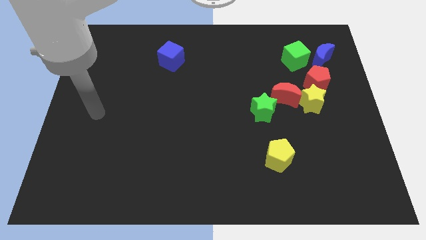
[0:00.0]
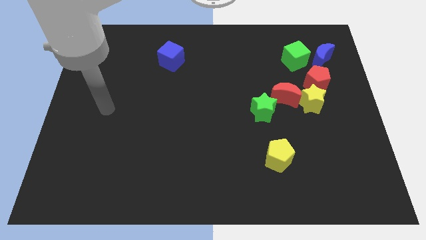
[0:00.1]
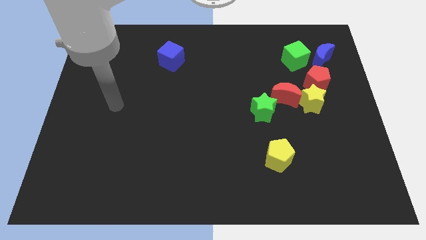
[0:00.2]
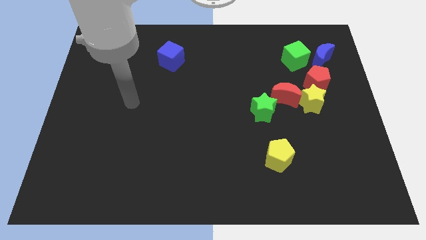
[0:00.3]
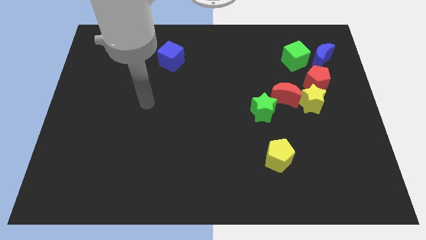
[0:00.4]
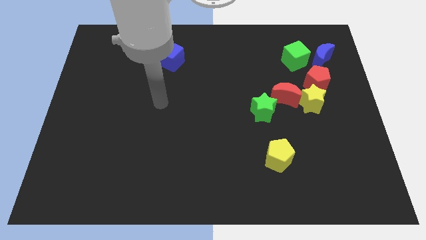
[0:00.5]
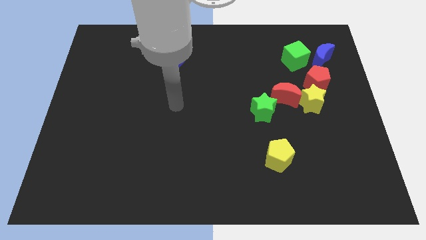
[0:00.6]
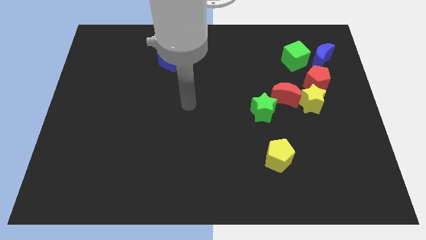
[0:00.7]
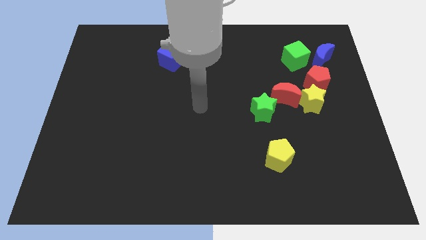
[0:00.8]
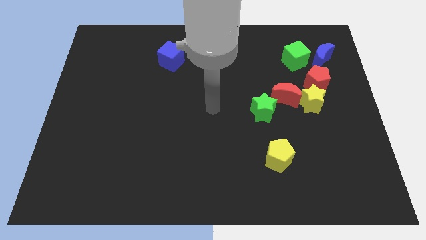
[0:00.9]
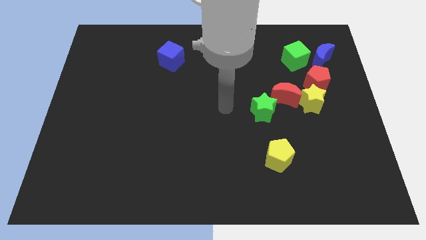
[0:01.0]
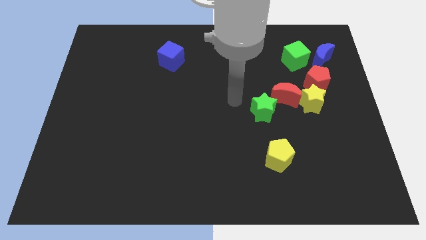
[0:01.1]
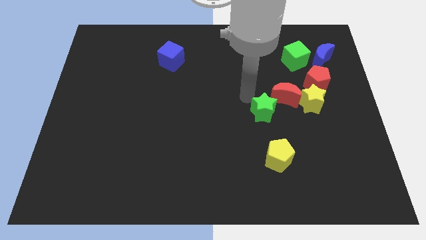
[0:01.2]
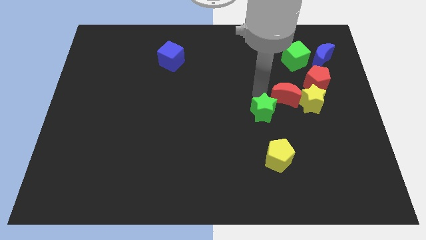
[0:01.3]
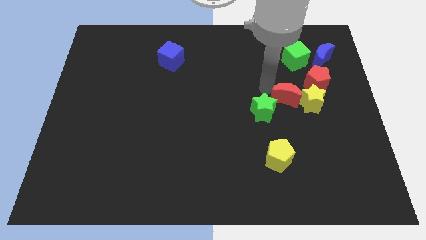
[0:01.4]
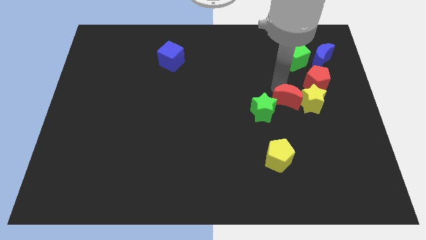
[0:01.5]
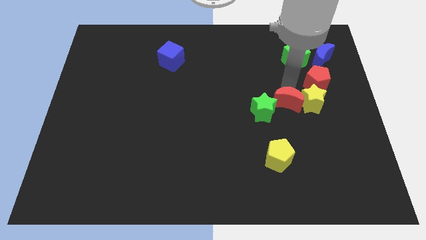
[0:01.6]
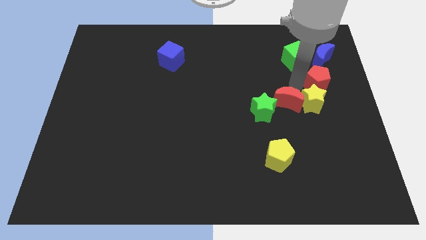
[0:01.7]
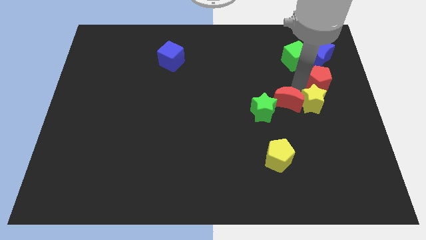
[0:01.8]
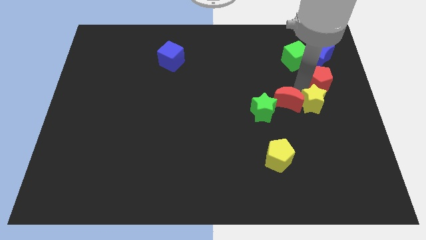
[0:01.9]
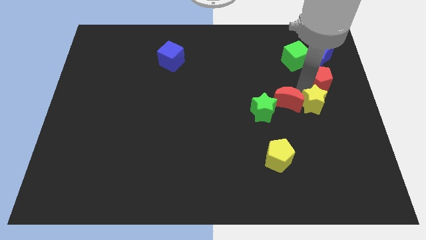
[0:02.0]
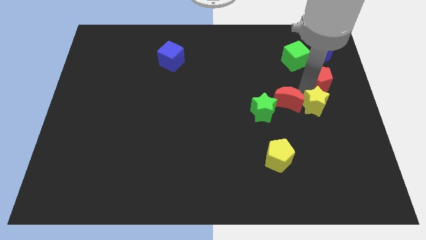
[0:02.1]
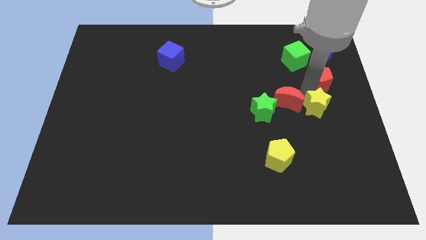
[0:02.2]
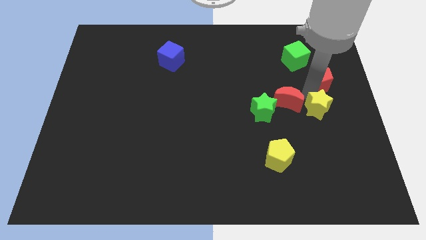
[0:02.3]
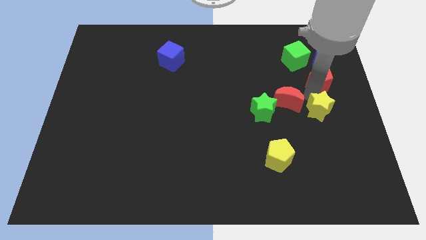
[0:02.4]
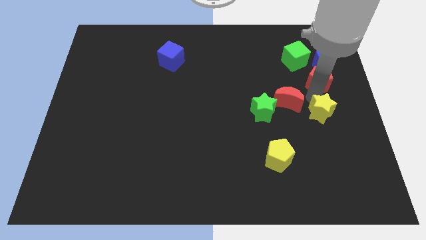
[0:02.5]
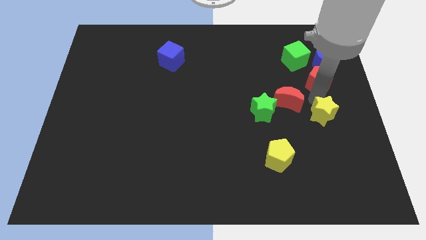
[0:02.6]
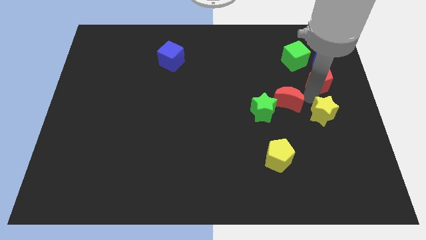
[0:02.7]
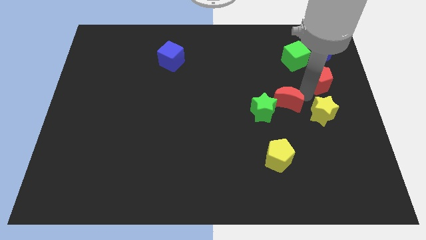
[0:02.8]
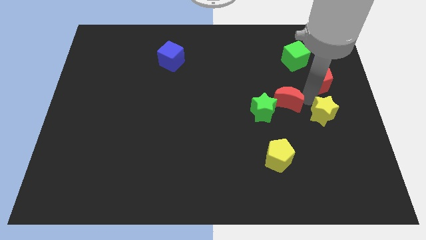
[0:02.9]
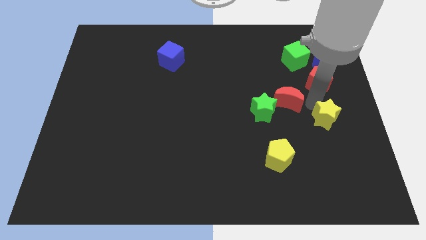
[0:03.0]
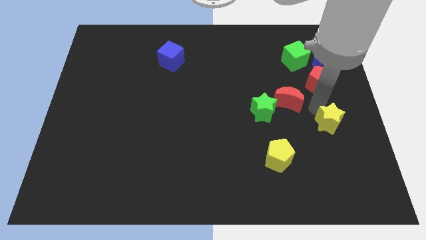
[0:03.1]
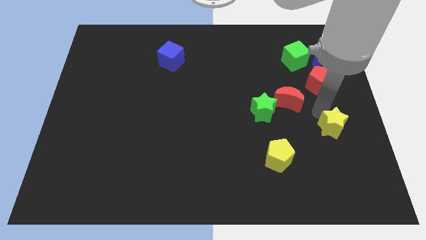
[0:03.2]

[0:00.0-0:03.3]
move the yellow star away from the red moon and red pentagon

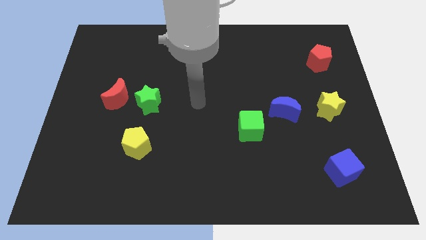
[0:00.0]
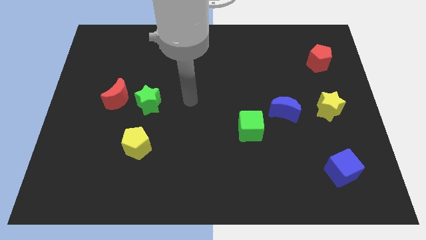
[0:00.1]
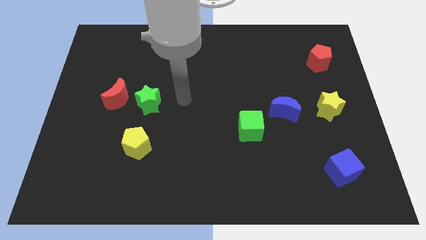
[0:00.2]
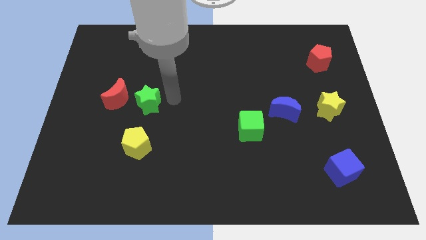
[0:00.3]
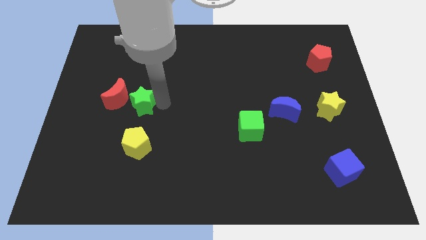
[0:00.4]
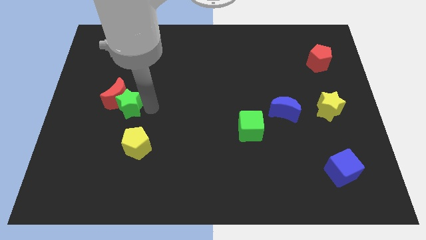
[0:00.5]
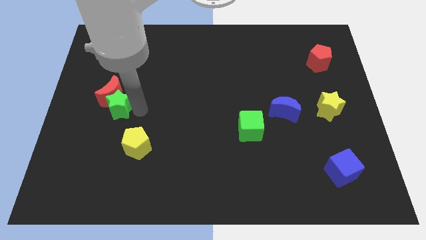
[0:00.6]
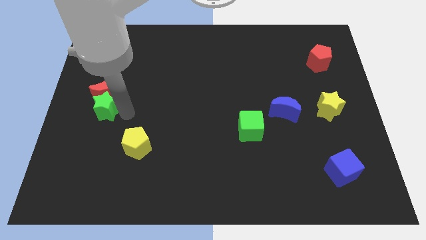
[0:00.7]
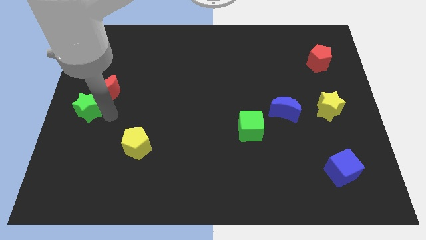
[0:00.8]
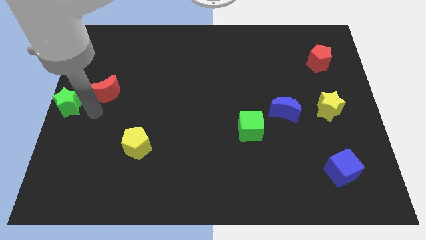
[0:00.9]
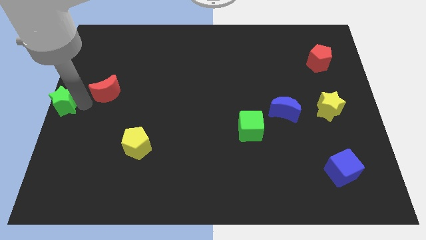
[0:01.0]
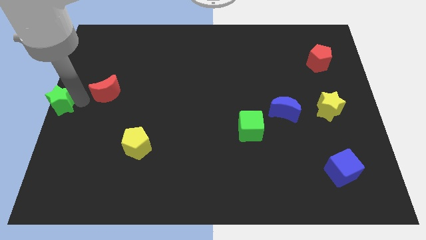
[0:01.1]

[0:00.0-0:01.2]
pull the red moon apart from the green star

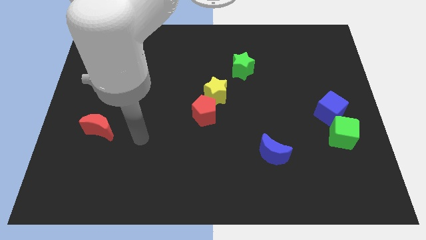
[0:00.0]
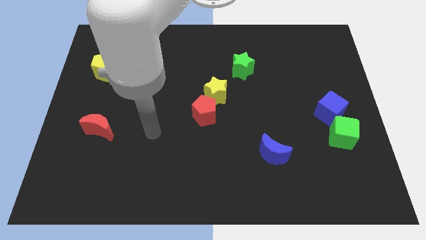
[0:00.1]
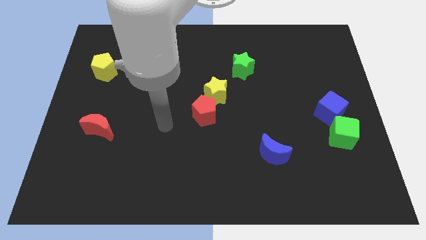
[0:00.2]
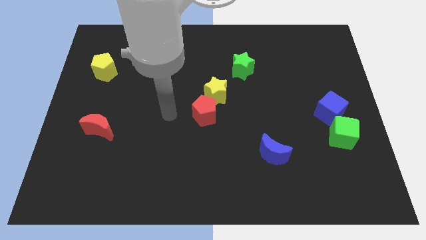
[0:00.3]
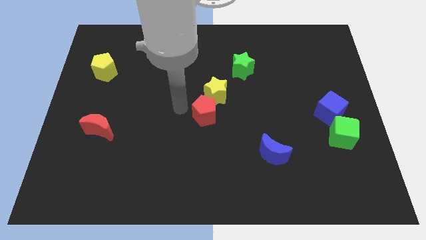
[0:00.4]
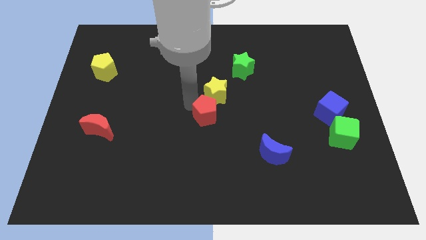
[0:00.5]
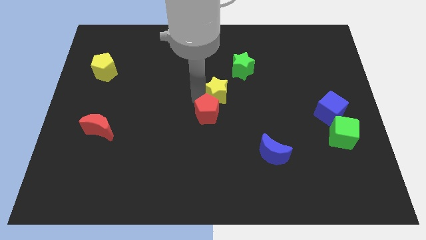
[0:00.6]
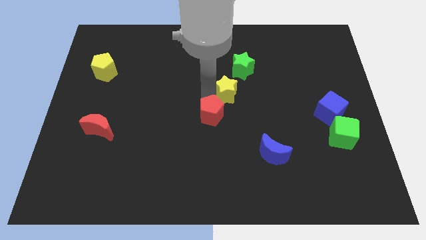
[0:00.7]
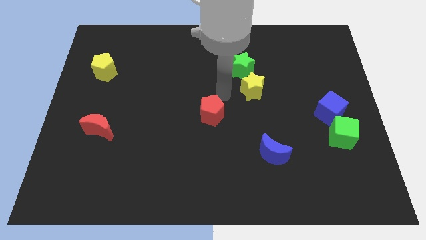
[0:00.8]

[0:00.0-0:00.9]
separate the red pentagon from the yellow star

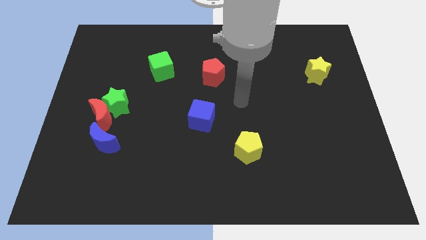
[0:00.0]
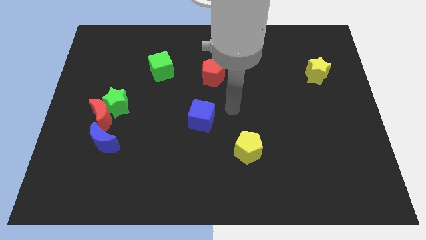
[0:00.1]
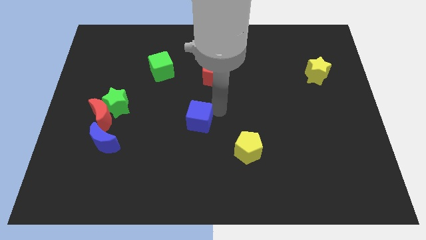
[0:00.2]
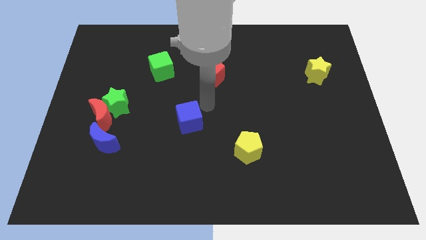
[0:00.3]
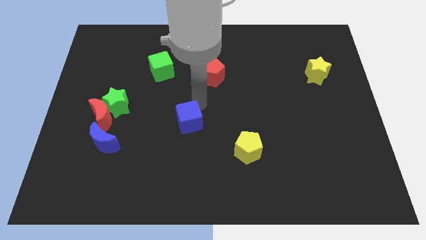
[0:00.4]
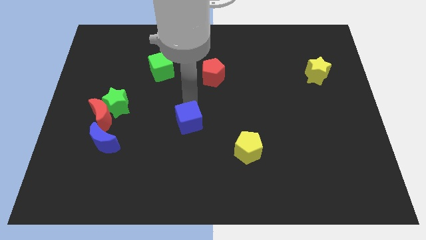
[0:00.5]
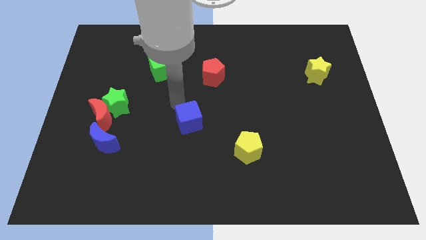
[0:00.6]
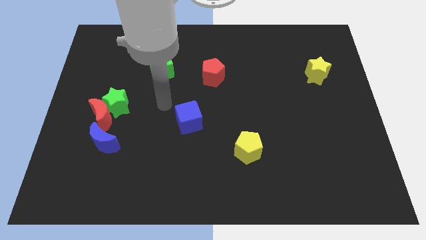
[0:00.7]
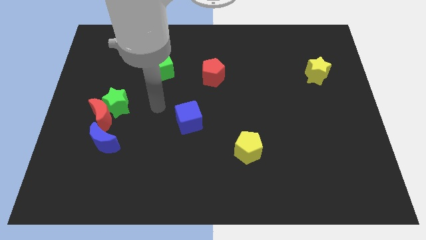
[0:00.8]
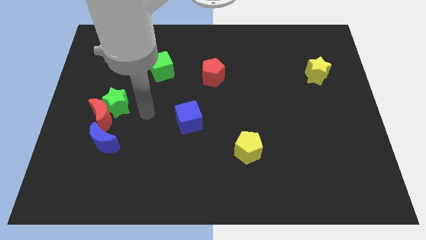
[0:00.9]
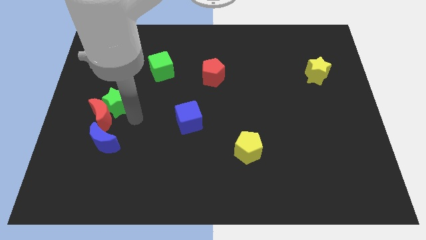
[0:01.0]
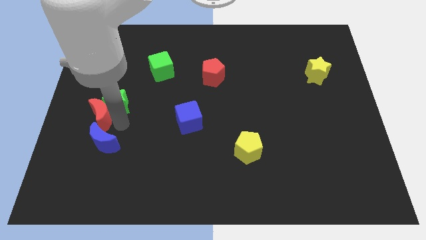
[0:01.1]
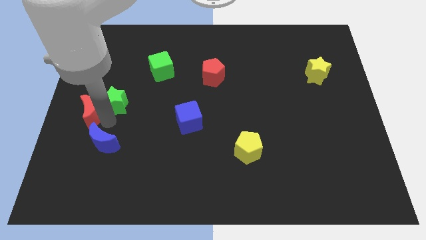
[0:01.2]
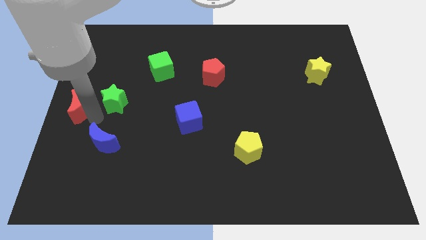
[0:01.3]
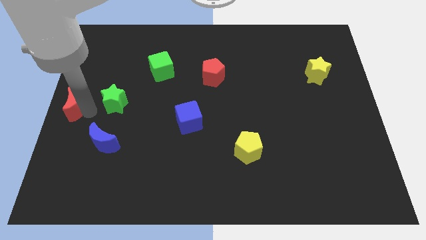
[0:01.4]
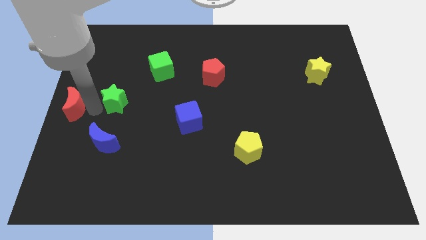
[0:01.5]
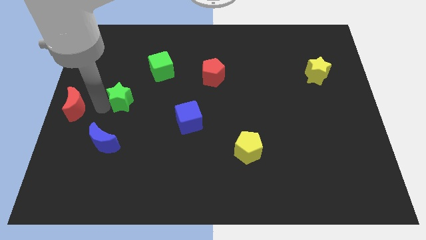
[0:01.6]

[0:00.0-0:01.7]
separate the green star from the red moon

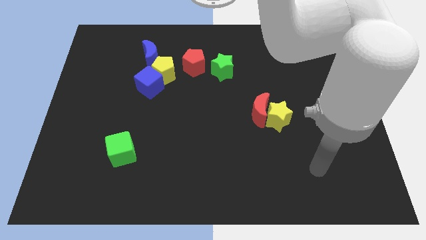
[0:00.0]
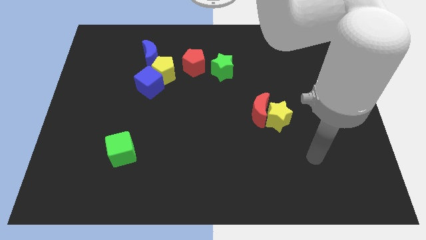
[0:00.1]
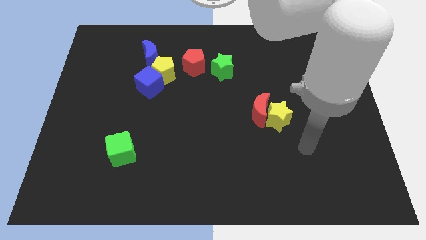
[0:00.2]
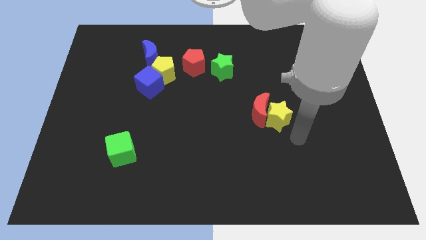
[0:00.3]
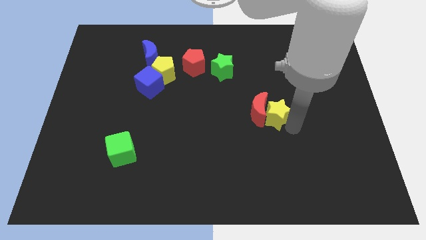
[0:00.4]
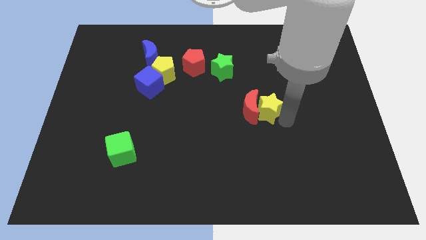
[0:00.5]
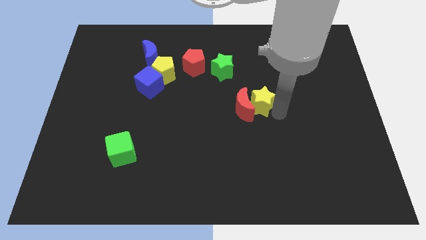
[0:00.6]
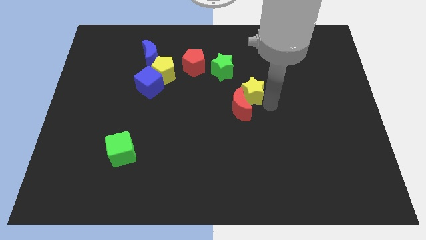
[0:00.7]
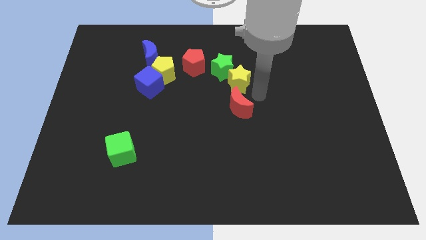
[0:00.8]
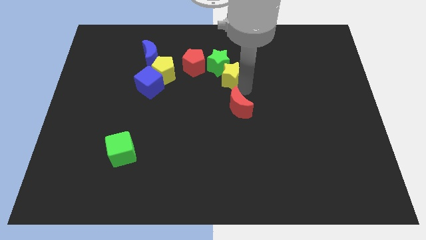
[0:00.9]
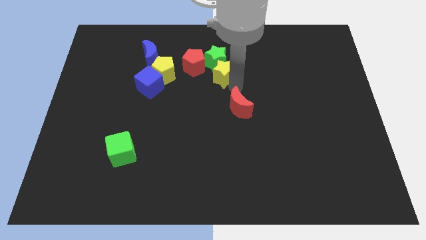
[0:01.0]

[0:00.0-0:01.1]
separate the red moon from the yellow star

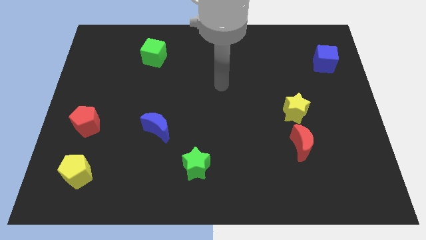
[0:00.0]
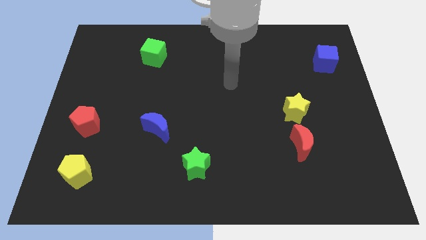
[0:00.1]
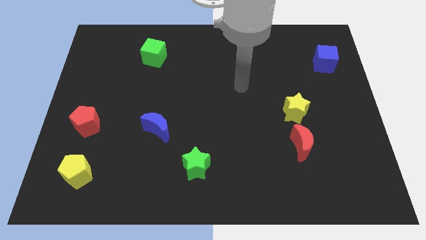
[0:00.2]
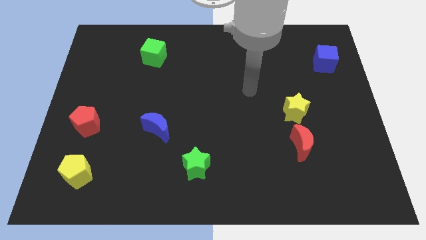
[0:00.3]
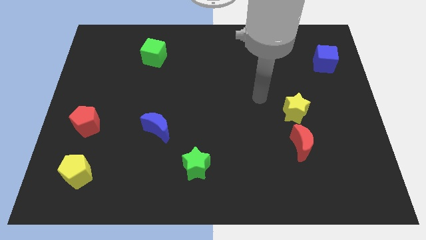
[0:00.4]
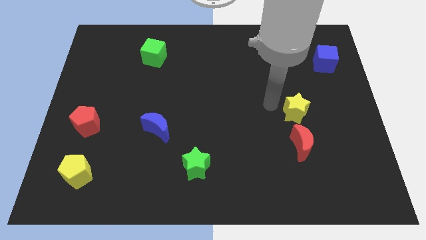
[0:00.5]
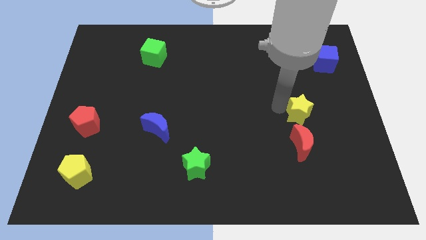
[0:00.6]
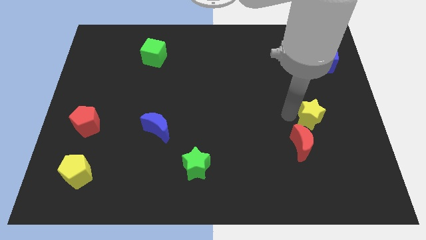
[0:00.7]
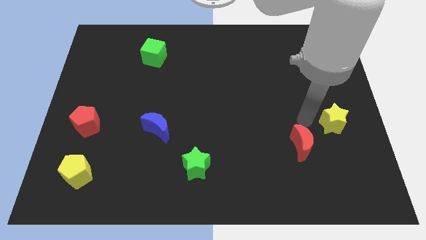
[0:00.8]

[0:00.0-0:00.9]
pull the red moon apart from the yellow star
